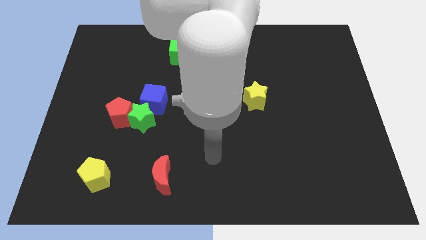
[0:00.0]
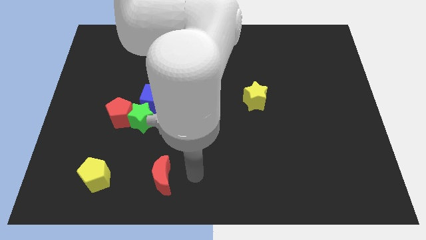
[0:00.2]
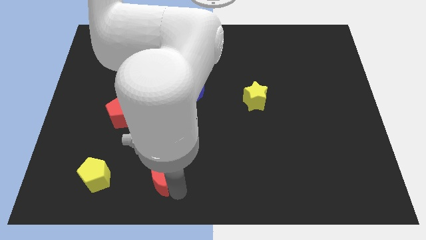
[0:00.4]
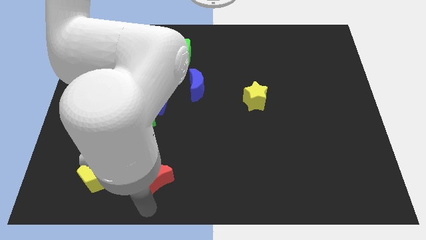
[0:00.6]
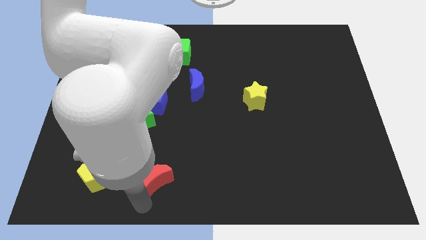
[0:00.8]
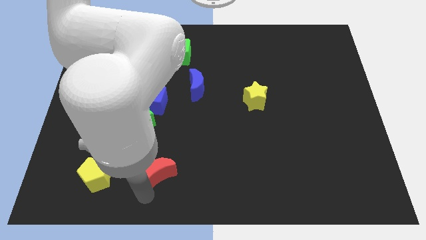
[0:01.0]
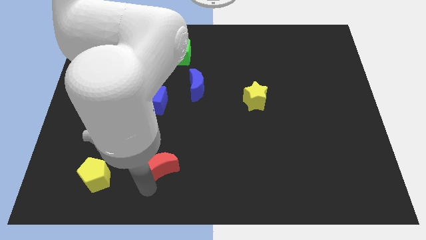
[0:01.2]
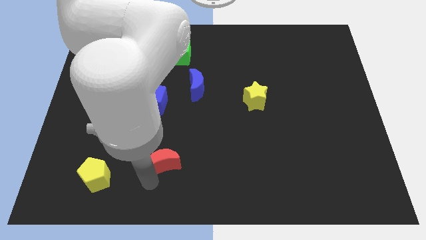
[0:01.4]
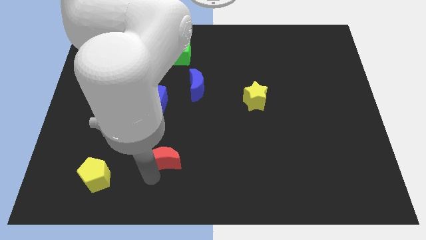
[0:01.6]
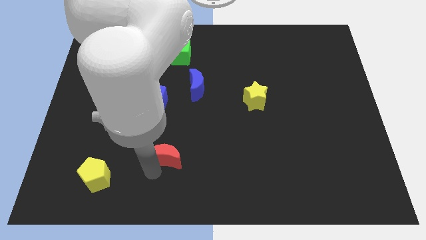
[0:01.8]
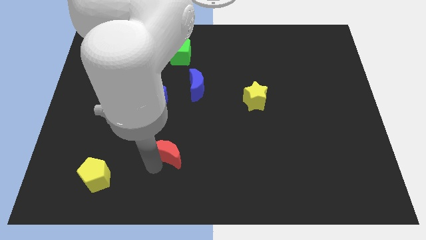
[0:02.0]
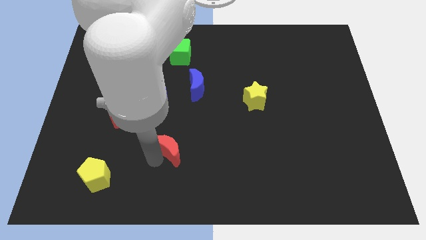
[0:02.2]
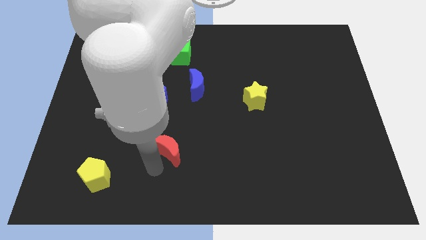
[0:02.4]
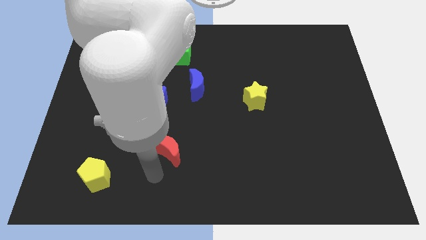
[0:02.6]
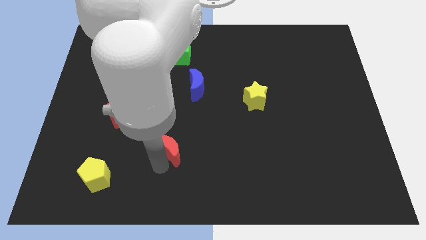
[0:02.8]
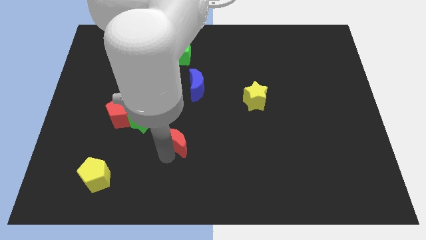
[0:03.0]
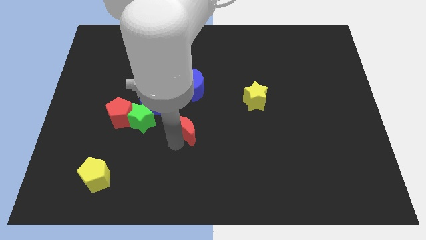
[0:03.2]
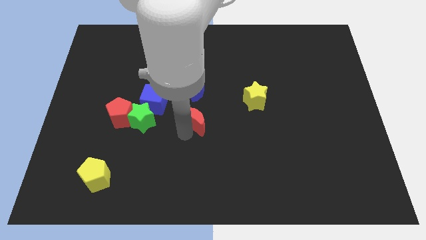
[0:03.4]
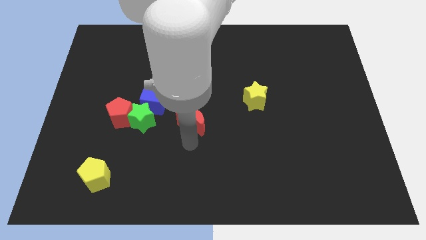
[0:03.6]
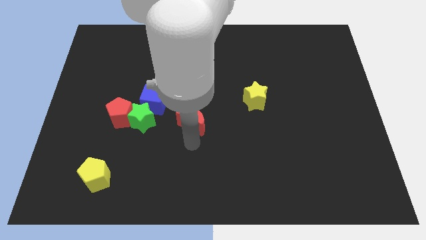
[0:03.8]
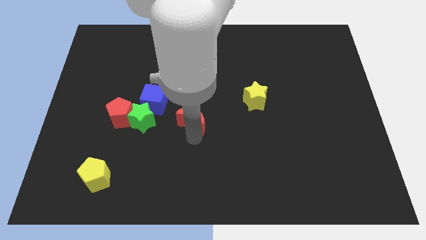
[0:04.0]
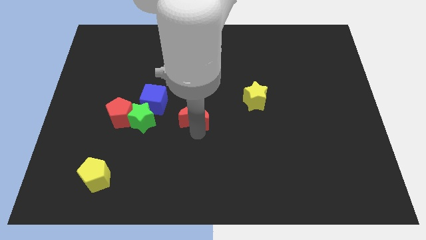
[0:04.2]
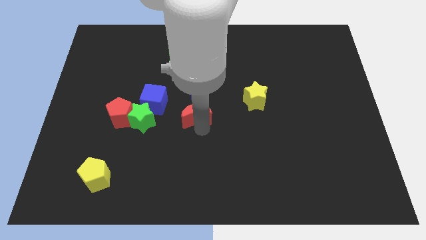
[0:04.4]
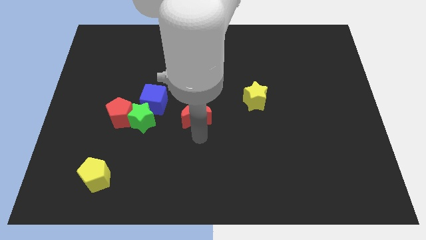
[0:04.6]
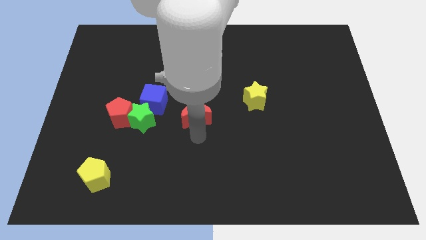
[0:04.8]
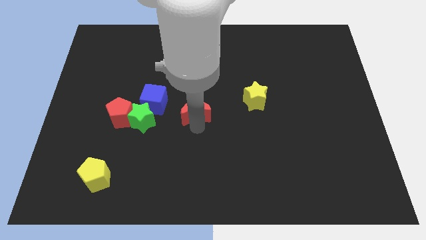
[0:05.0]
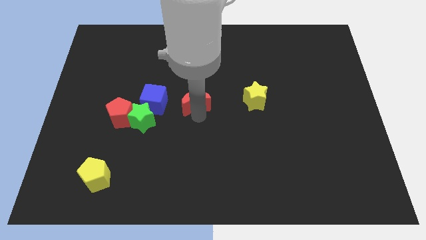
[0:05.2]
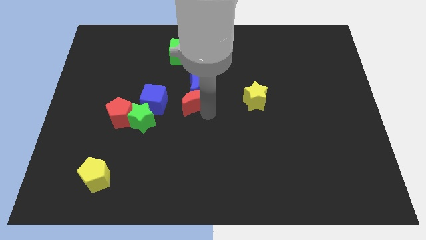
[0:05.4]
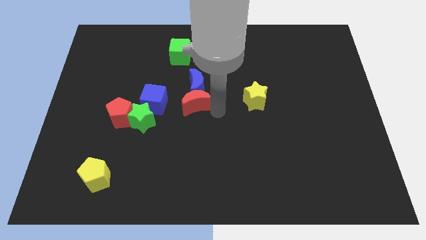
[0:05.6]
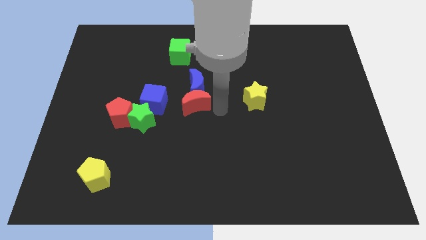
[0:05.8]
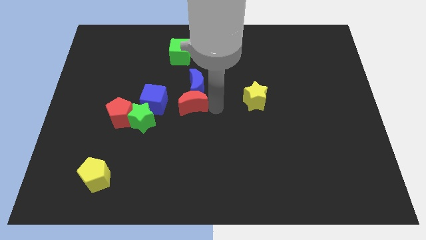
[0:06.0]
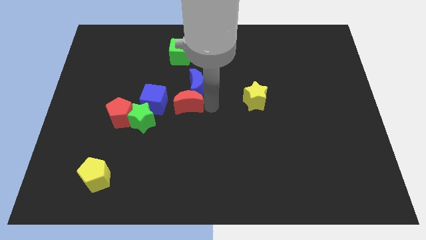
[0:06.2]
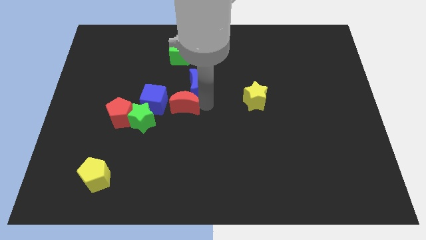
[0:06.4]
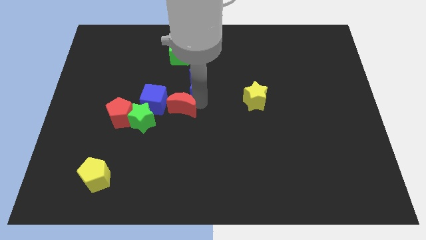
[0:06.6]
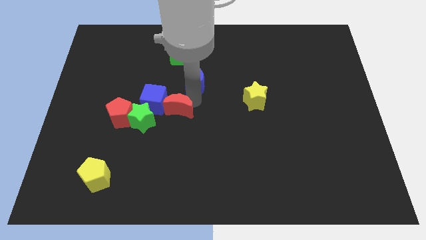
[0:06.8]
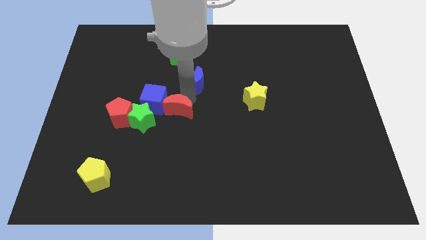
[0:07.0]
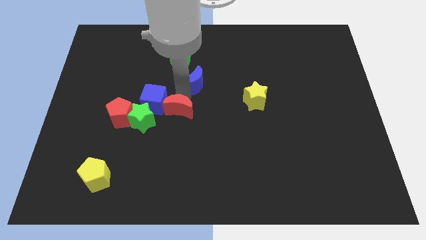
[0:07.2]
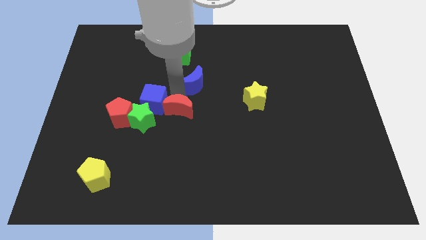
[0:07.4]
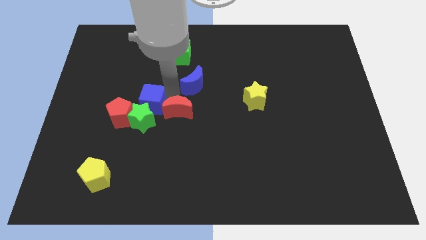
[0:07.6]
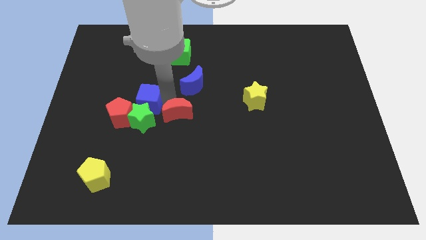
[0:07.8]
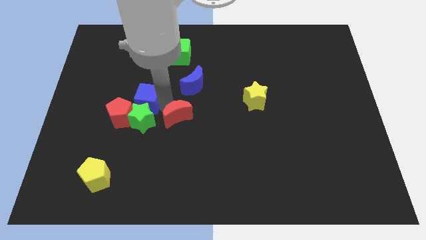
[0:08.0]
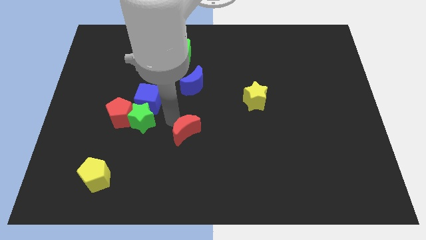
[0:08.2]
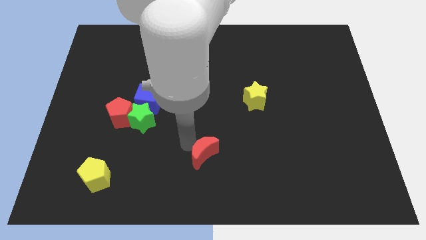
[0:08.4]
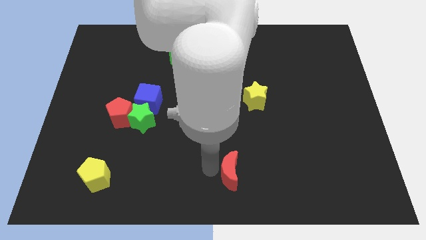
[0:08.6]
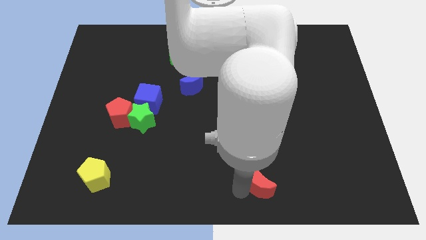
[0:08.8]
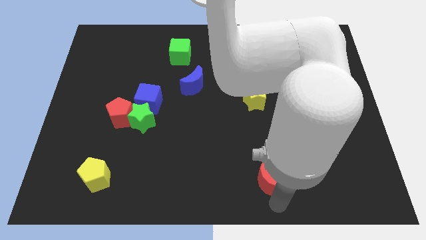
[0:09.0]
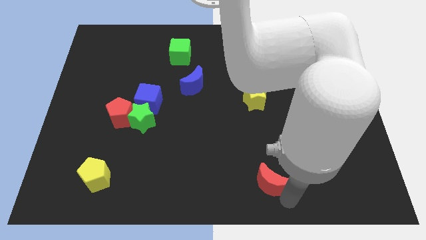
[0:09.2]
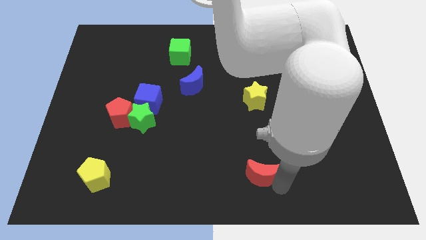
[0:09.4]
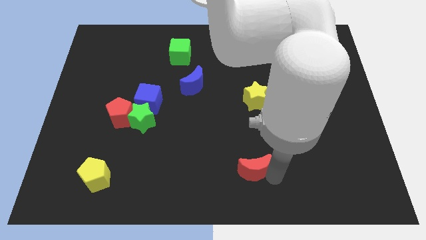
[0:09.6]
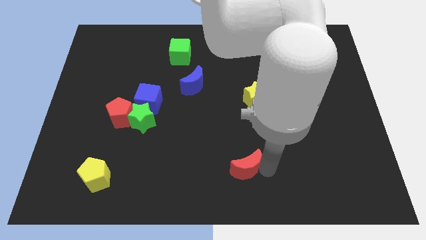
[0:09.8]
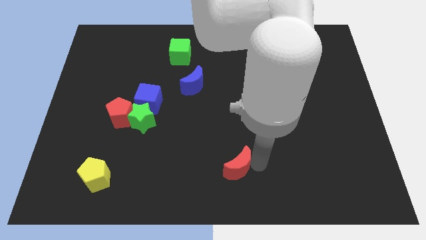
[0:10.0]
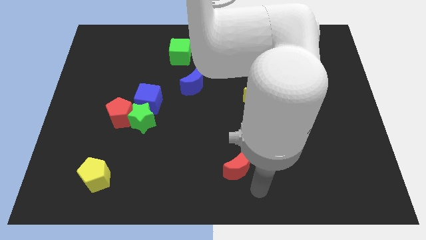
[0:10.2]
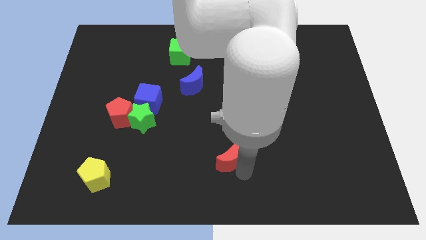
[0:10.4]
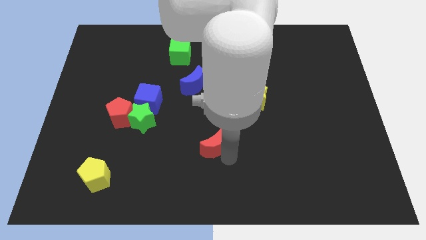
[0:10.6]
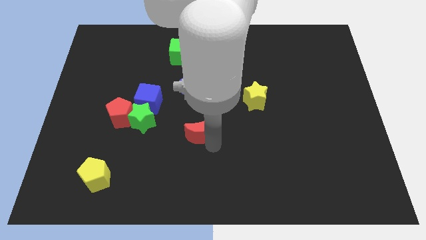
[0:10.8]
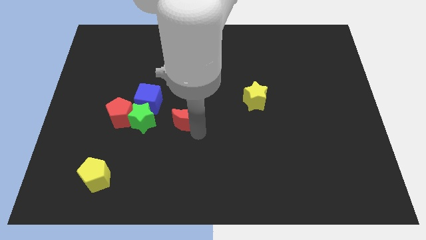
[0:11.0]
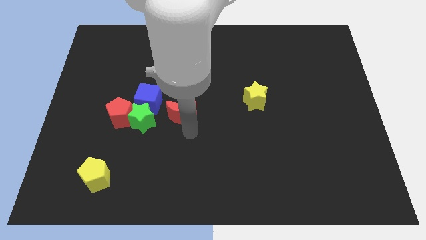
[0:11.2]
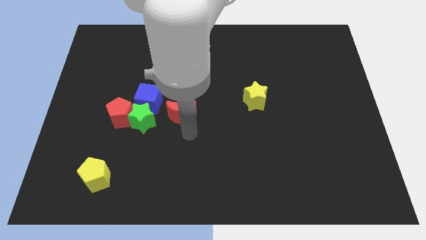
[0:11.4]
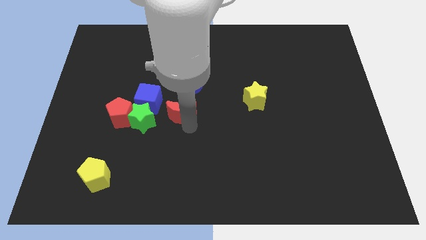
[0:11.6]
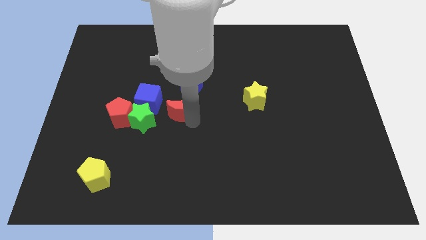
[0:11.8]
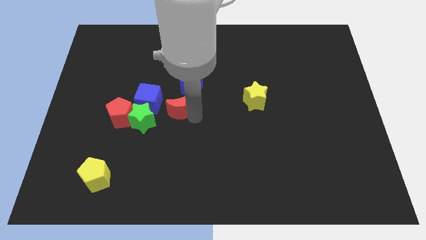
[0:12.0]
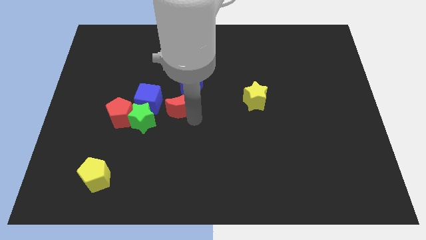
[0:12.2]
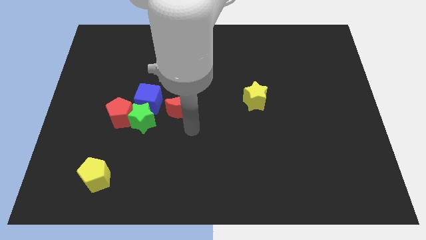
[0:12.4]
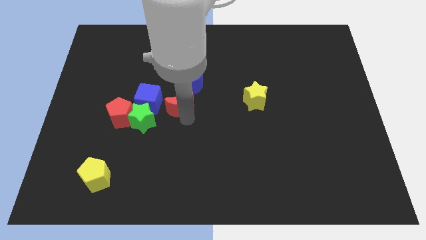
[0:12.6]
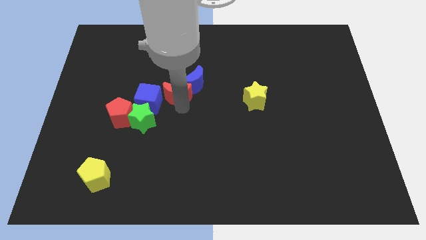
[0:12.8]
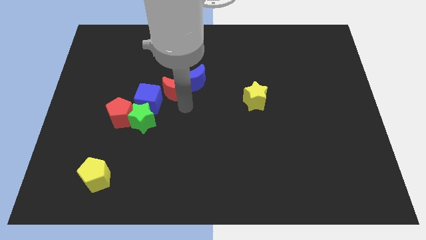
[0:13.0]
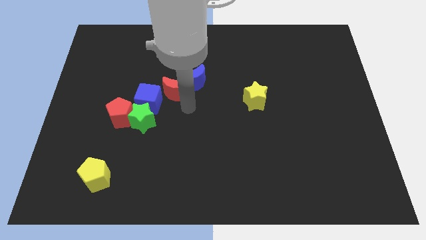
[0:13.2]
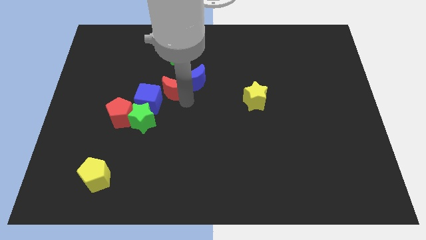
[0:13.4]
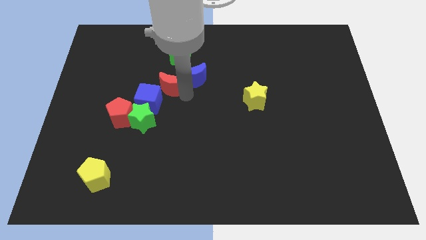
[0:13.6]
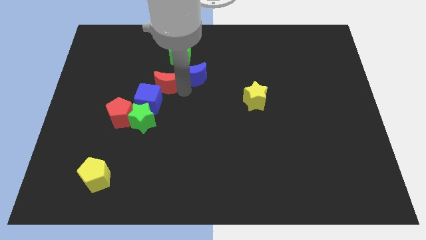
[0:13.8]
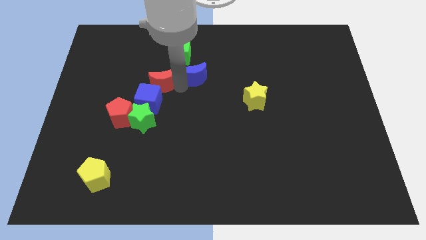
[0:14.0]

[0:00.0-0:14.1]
slide the red moon to the bottom left side of the green cube

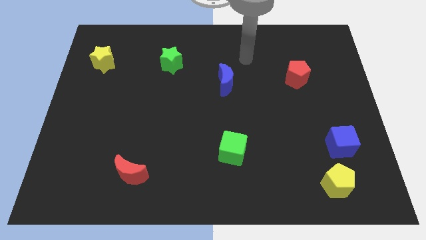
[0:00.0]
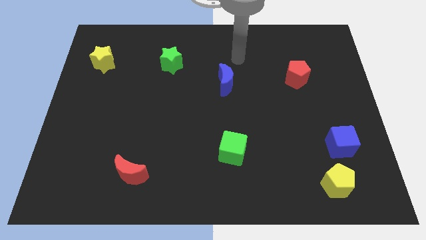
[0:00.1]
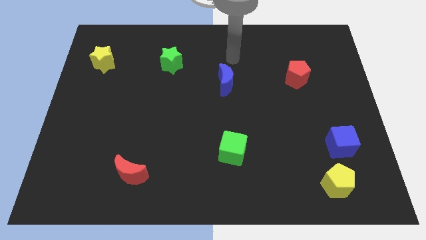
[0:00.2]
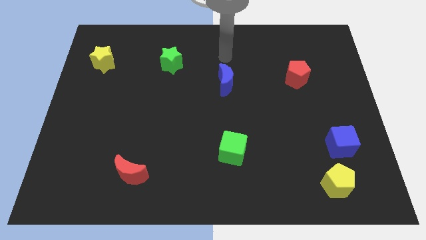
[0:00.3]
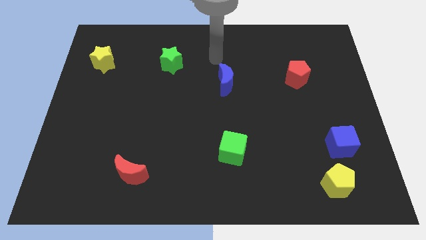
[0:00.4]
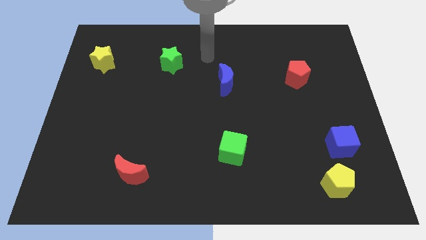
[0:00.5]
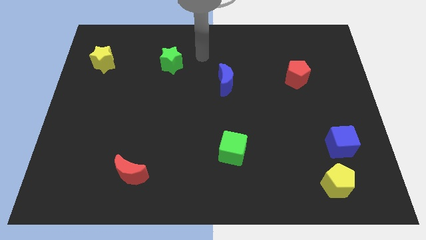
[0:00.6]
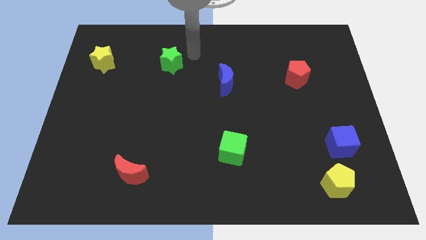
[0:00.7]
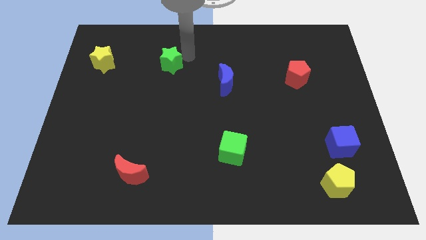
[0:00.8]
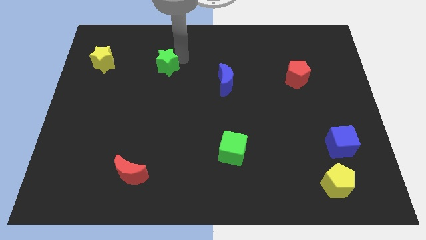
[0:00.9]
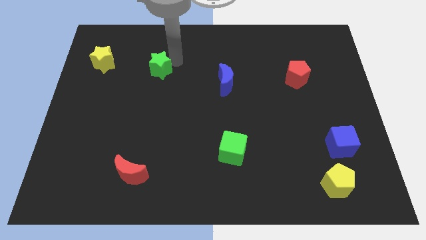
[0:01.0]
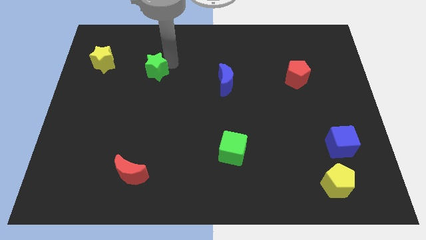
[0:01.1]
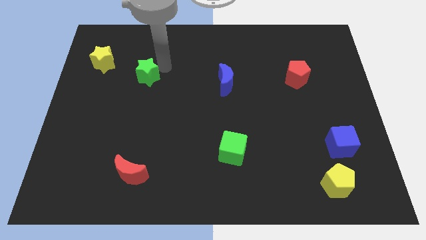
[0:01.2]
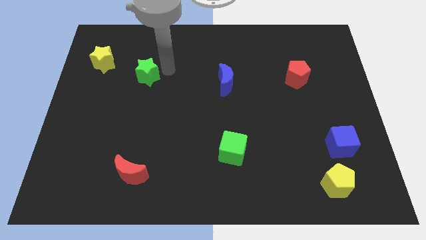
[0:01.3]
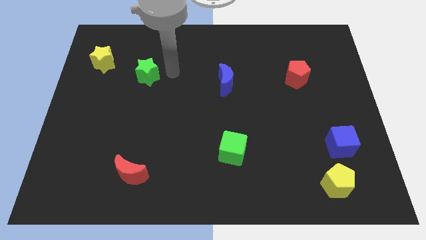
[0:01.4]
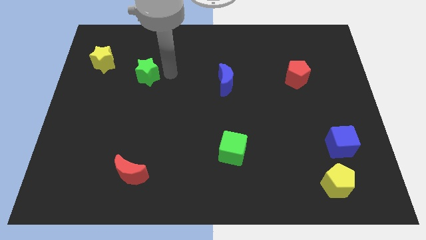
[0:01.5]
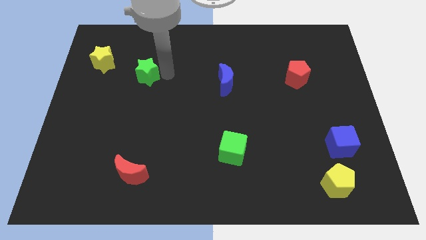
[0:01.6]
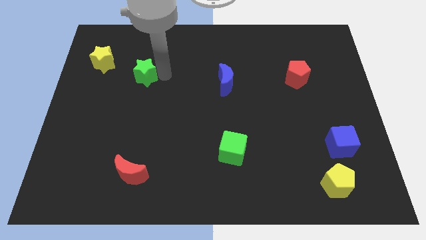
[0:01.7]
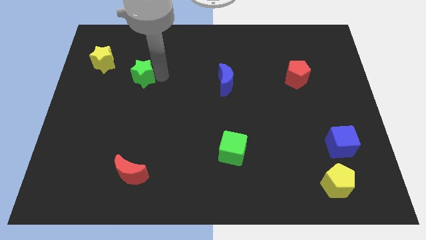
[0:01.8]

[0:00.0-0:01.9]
put the green star to the bottom right side of the yellow star
